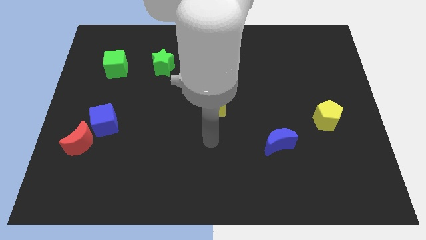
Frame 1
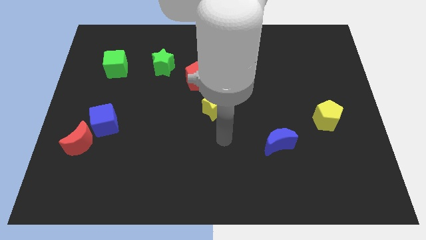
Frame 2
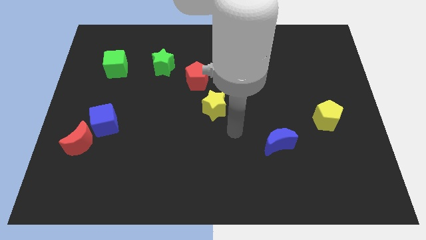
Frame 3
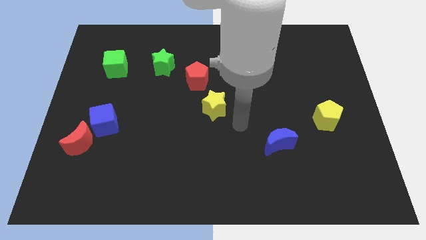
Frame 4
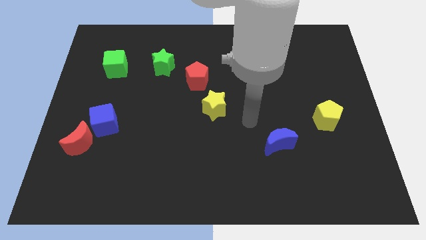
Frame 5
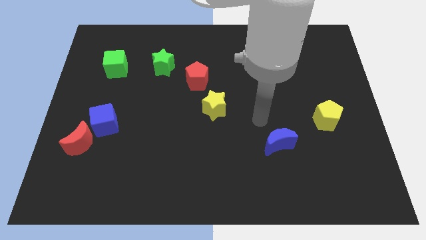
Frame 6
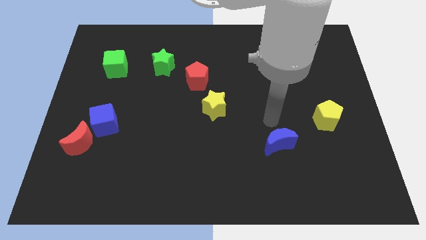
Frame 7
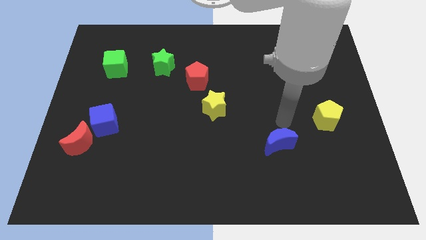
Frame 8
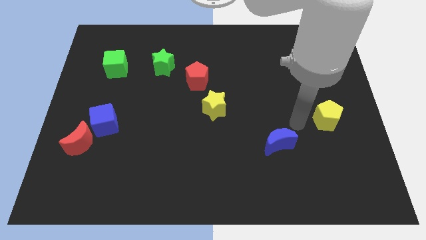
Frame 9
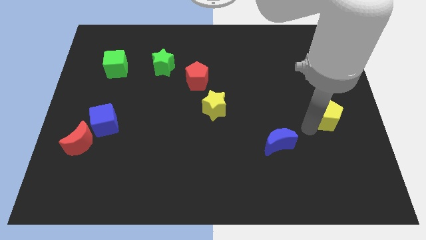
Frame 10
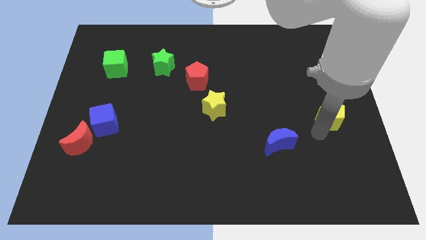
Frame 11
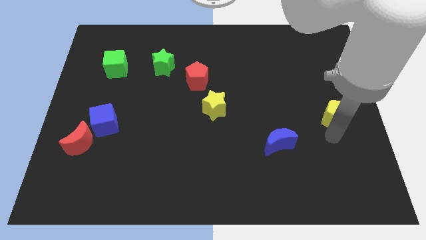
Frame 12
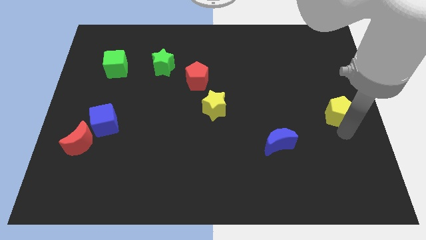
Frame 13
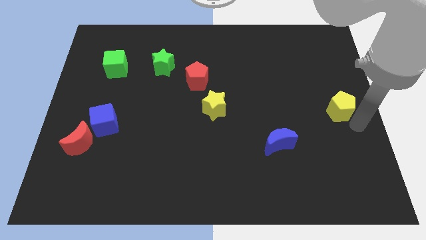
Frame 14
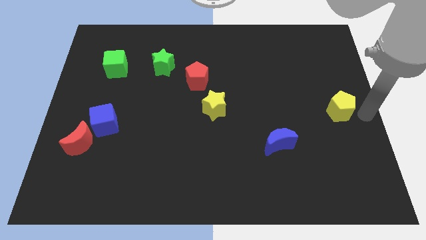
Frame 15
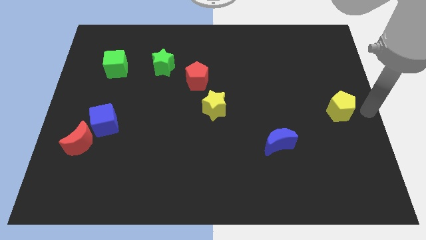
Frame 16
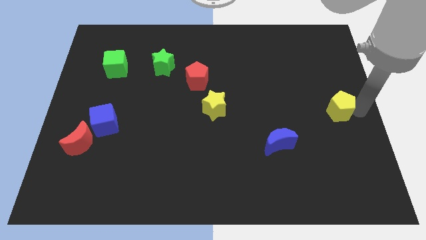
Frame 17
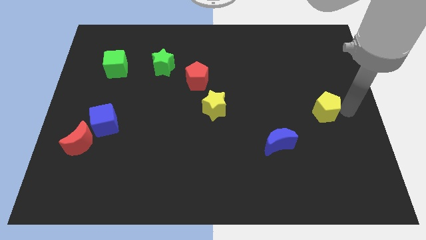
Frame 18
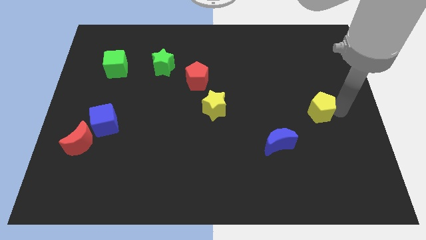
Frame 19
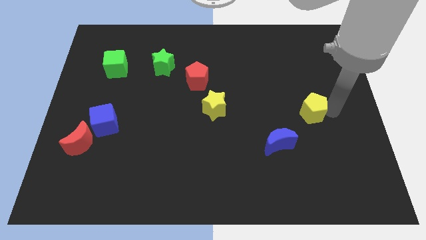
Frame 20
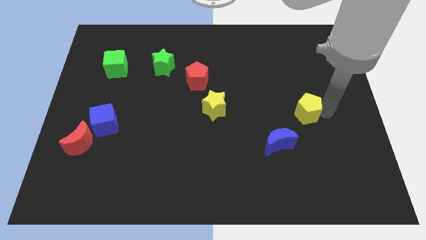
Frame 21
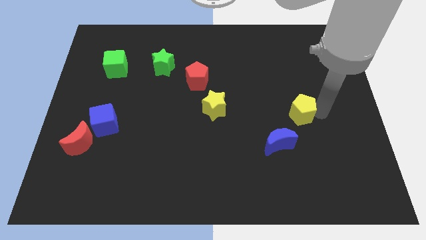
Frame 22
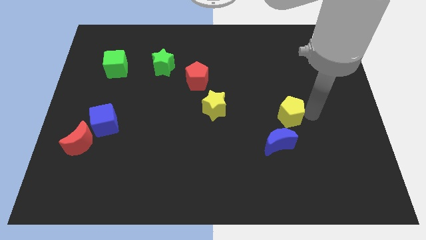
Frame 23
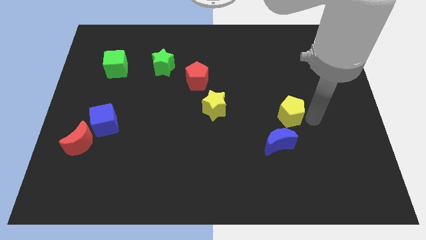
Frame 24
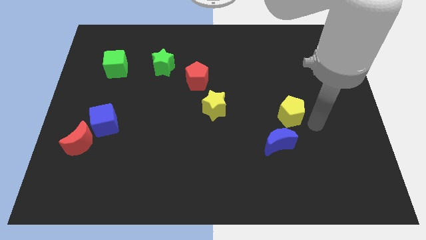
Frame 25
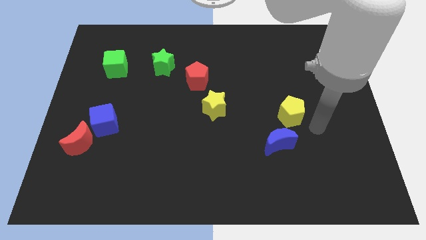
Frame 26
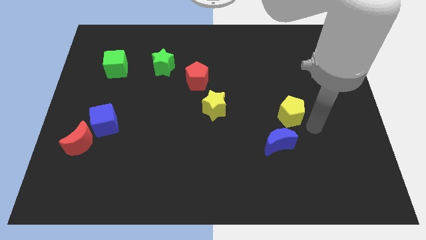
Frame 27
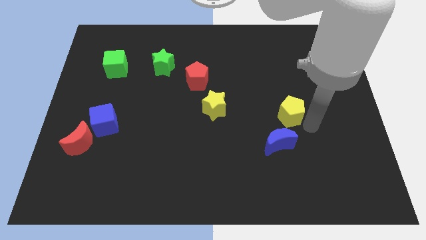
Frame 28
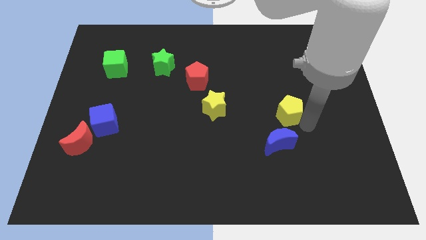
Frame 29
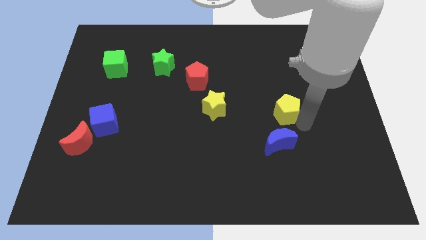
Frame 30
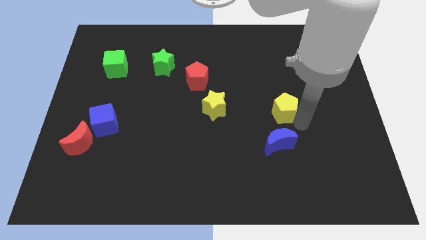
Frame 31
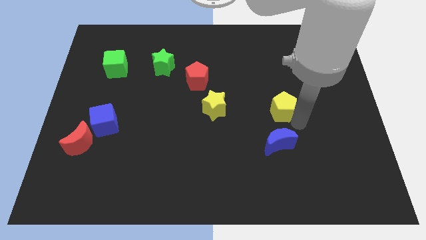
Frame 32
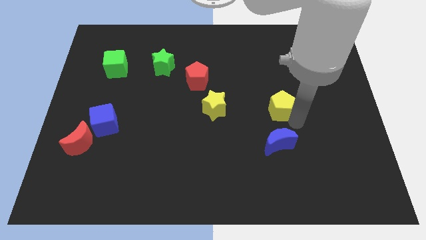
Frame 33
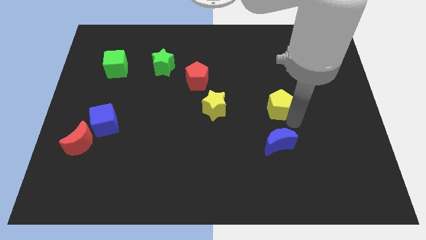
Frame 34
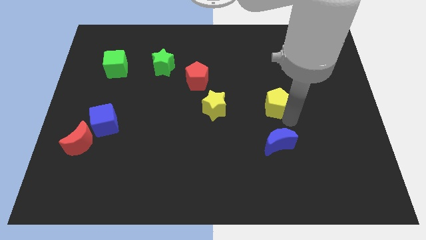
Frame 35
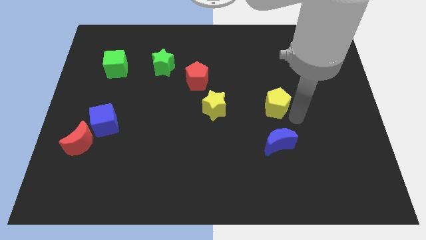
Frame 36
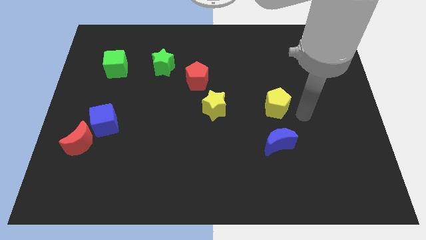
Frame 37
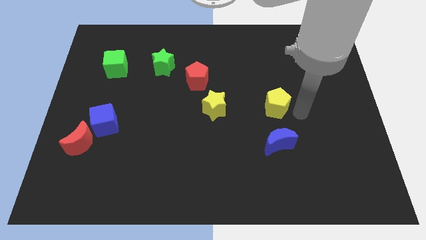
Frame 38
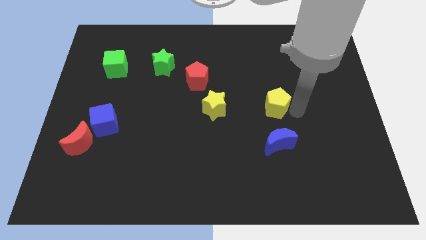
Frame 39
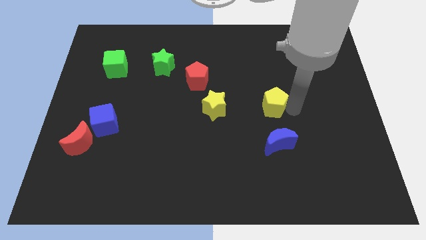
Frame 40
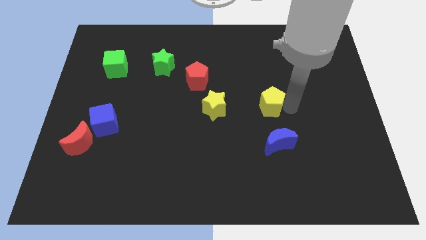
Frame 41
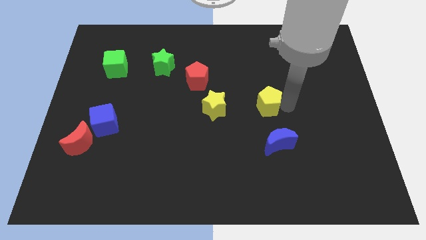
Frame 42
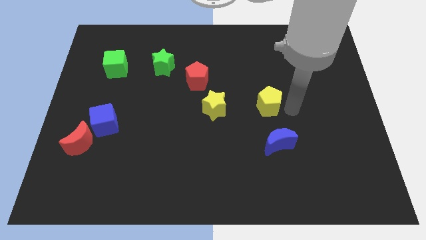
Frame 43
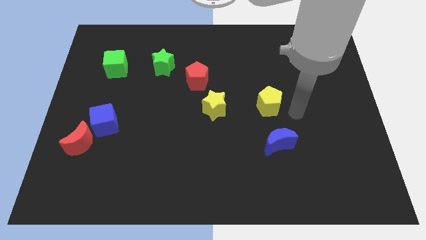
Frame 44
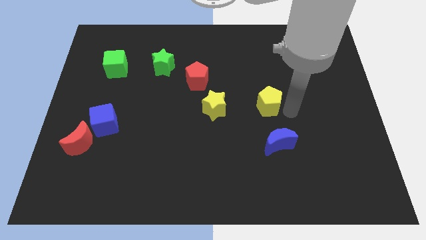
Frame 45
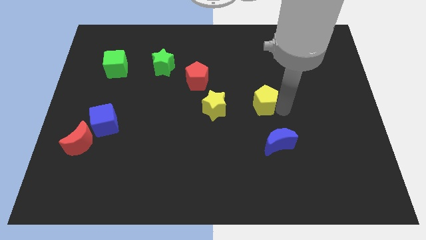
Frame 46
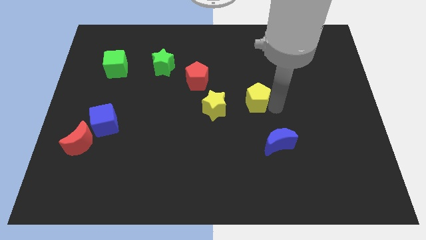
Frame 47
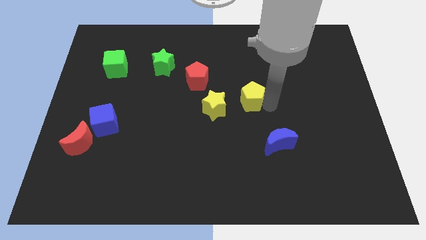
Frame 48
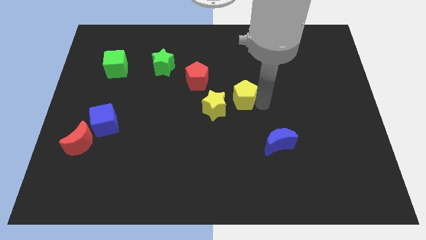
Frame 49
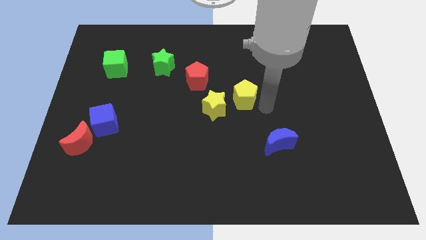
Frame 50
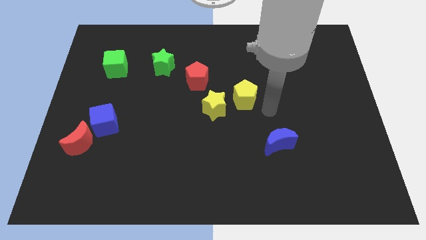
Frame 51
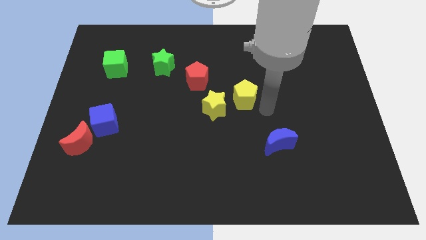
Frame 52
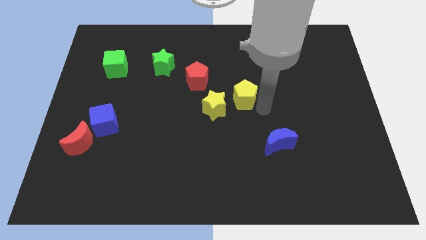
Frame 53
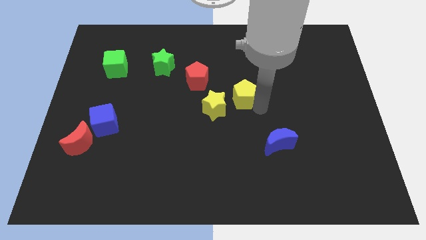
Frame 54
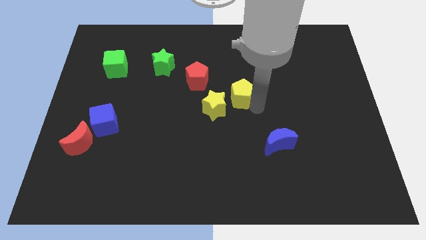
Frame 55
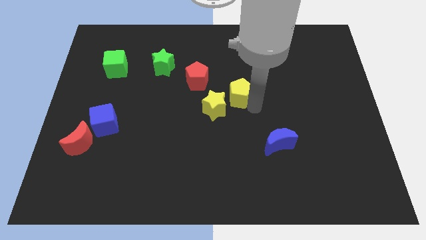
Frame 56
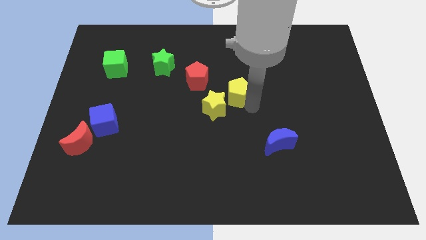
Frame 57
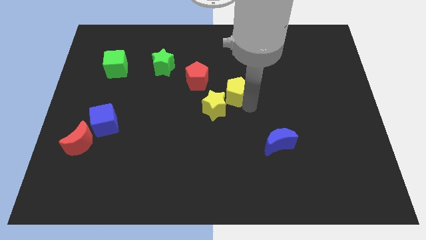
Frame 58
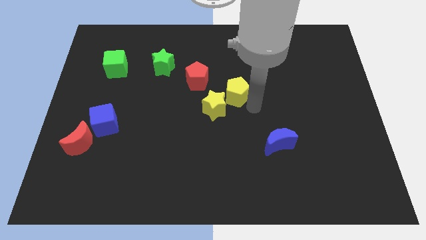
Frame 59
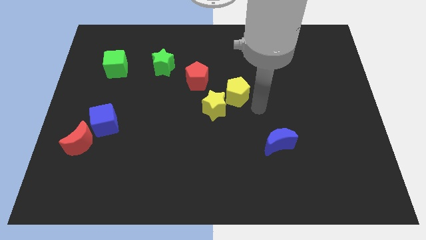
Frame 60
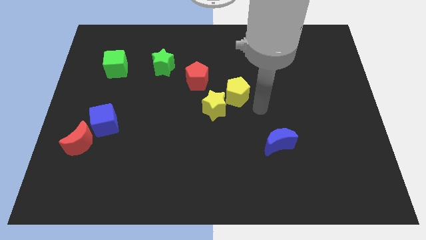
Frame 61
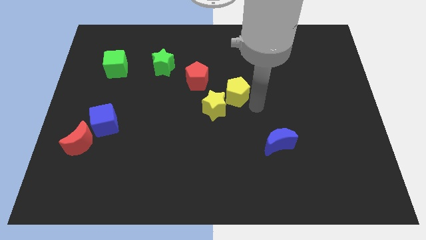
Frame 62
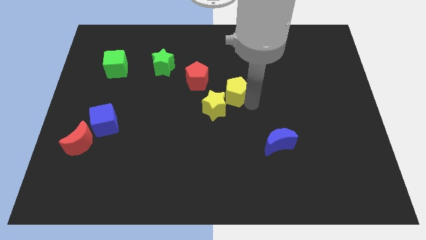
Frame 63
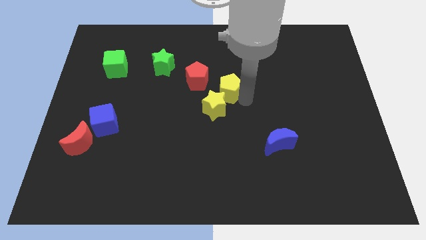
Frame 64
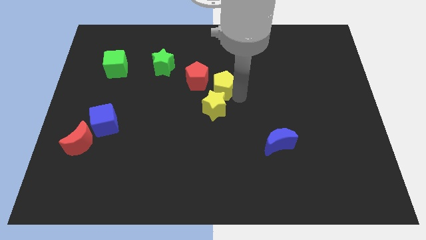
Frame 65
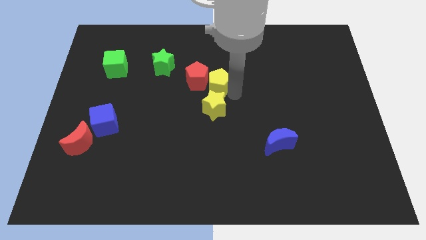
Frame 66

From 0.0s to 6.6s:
slide the yellow pentagon close to the red pentagon
